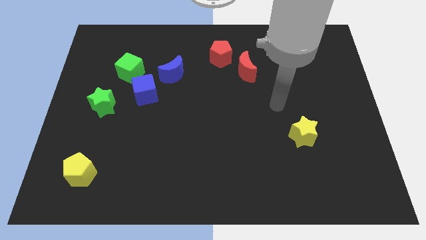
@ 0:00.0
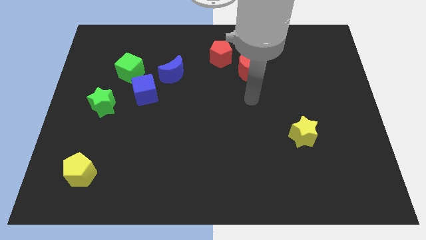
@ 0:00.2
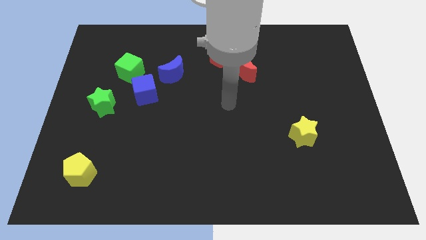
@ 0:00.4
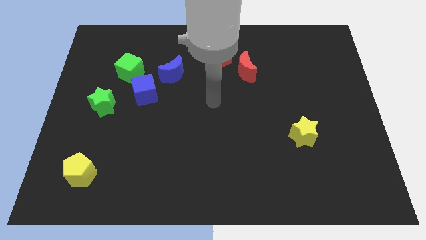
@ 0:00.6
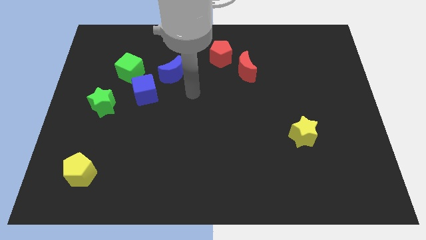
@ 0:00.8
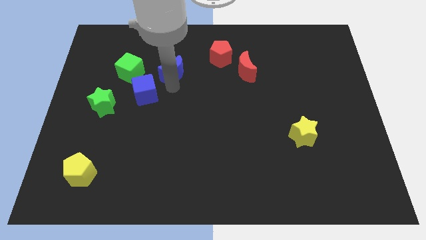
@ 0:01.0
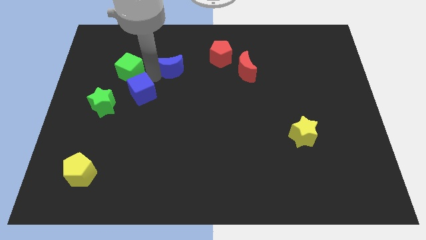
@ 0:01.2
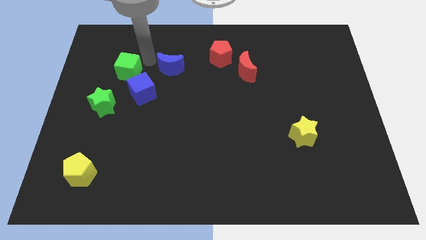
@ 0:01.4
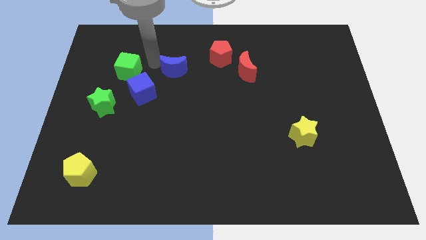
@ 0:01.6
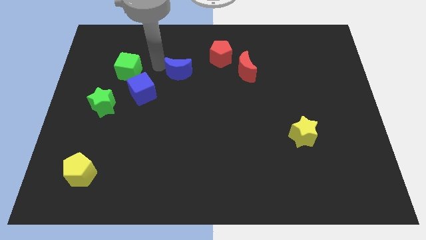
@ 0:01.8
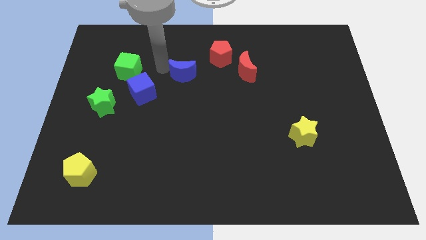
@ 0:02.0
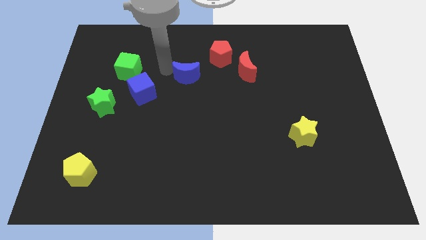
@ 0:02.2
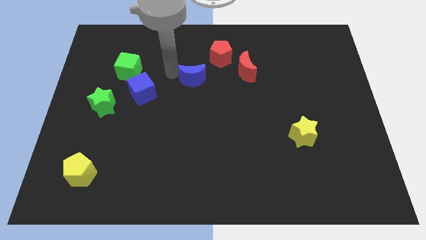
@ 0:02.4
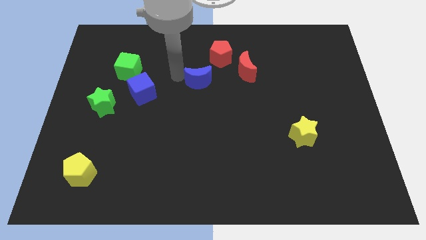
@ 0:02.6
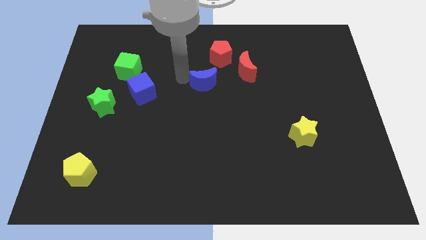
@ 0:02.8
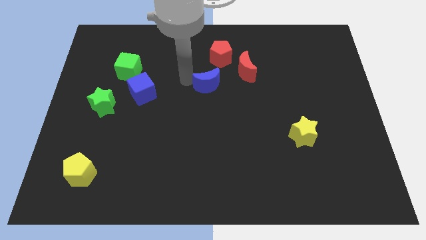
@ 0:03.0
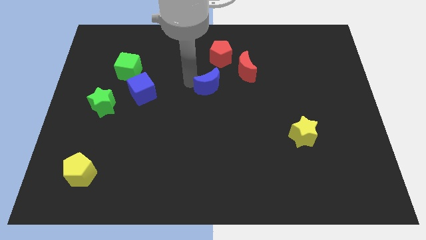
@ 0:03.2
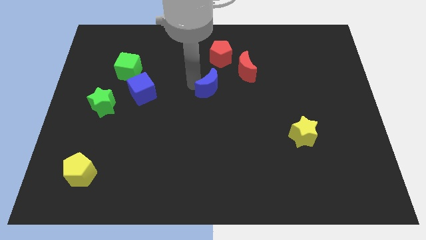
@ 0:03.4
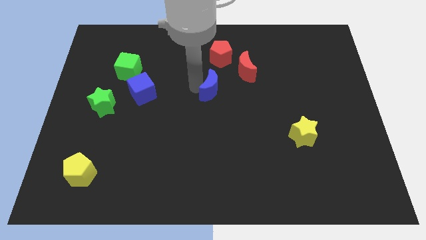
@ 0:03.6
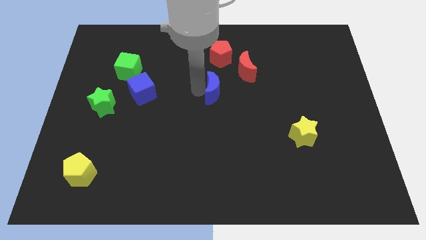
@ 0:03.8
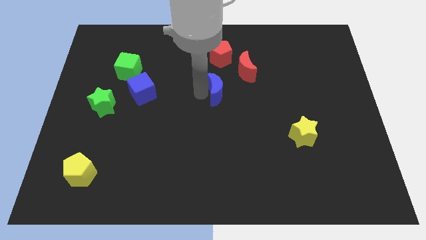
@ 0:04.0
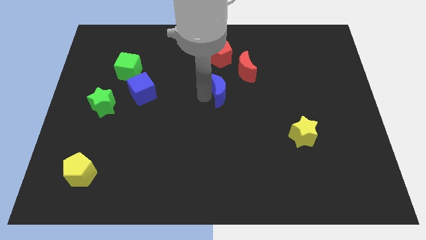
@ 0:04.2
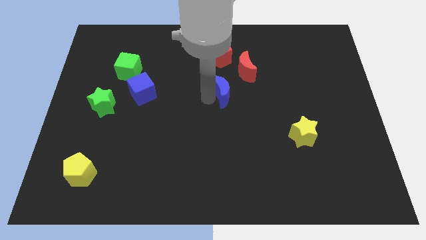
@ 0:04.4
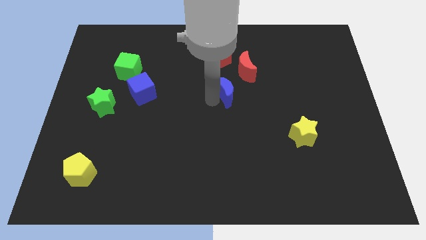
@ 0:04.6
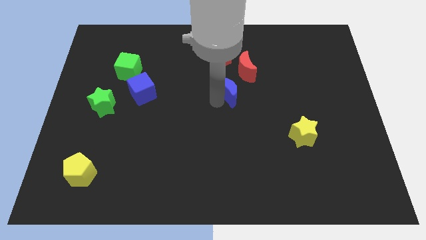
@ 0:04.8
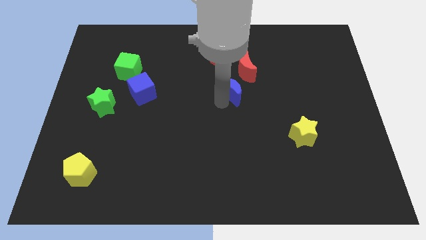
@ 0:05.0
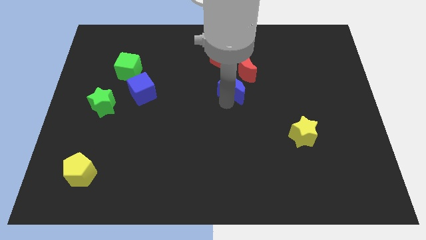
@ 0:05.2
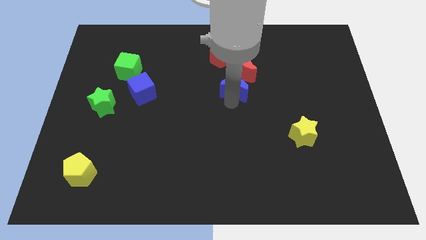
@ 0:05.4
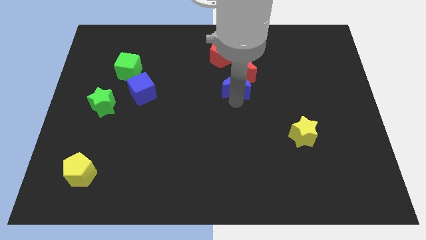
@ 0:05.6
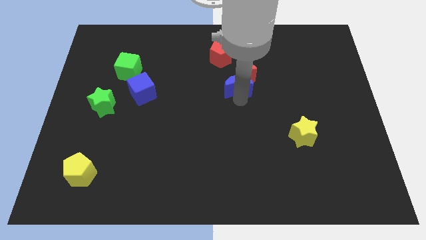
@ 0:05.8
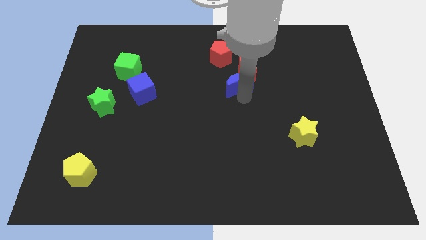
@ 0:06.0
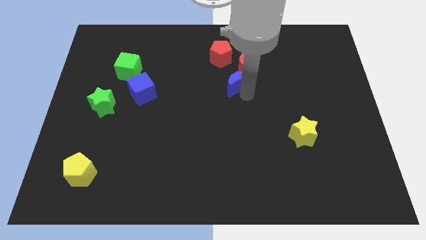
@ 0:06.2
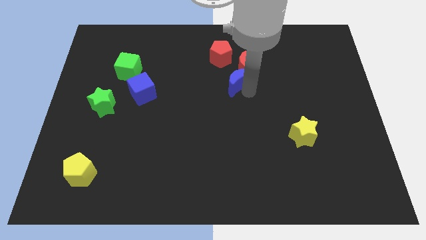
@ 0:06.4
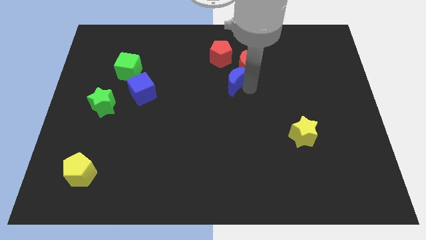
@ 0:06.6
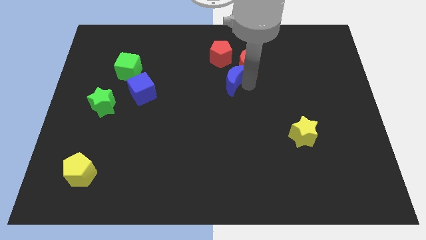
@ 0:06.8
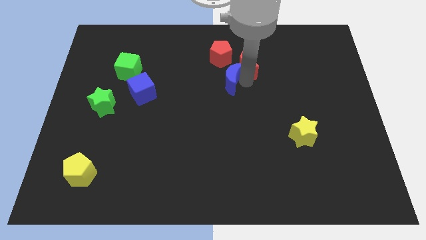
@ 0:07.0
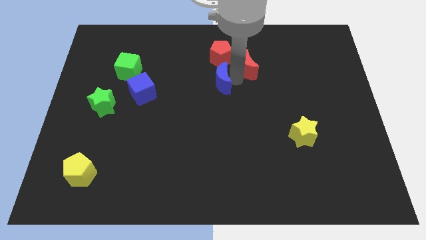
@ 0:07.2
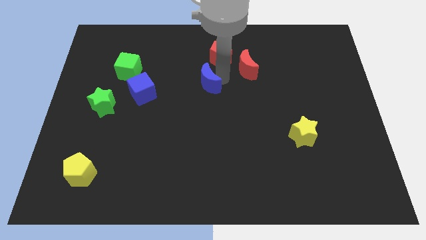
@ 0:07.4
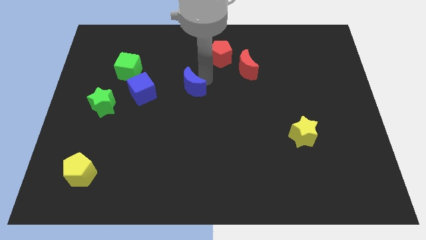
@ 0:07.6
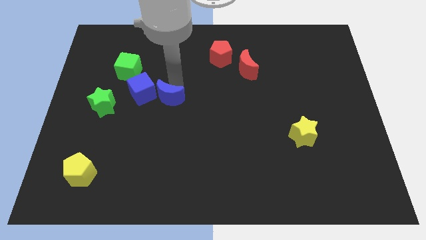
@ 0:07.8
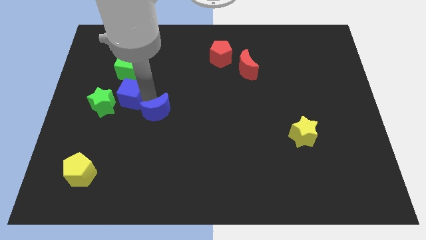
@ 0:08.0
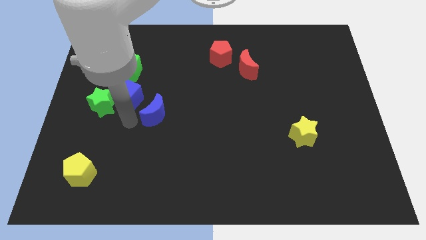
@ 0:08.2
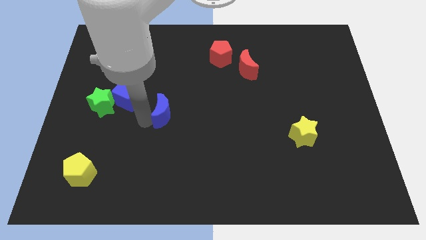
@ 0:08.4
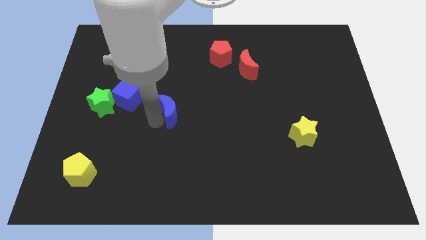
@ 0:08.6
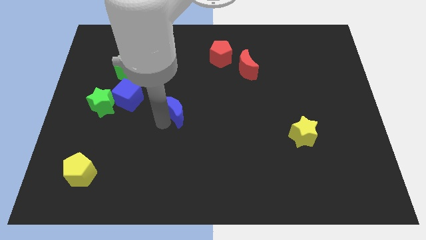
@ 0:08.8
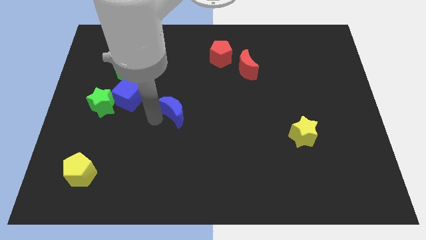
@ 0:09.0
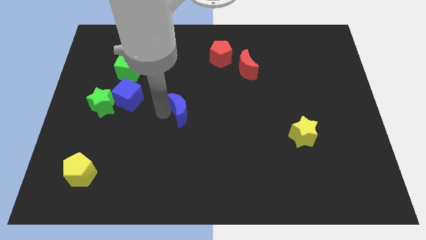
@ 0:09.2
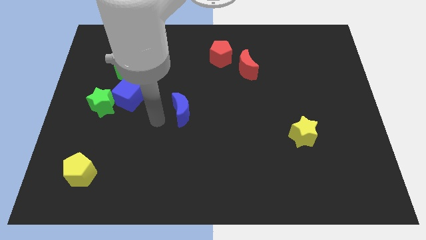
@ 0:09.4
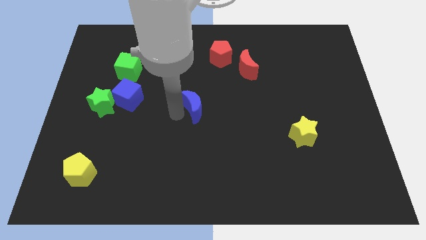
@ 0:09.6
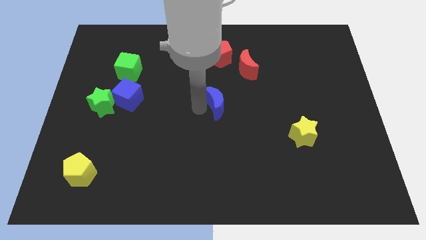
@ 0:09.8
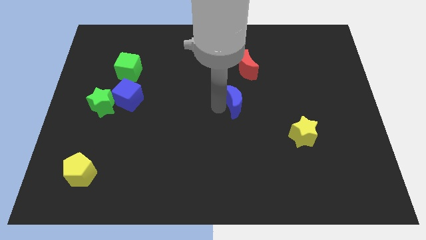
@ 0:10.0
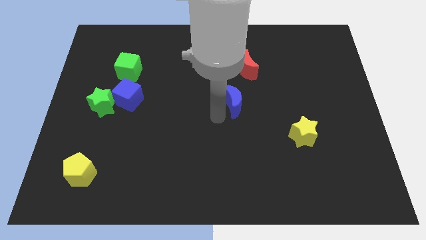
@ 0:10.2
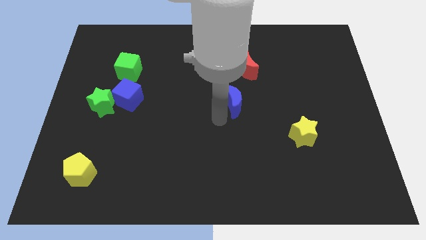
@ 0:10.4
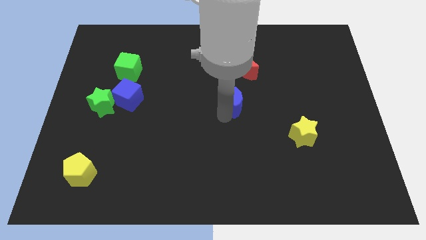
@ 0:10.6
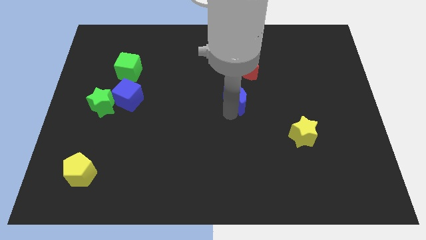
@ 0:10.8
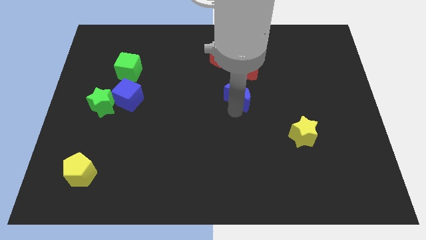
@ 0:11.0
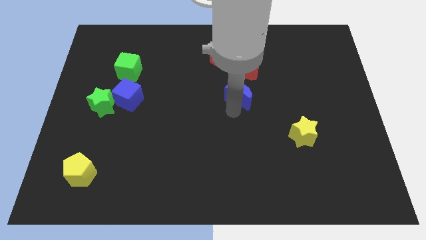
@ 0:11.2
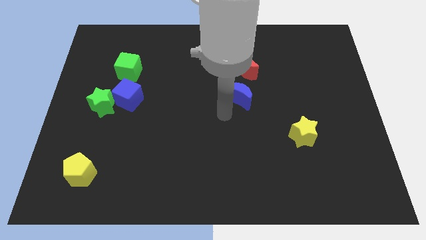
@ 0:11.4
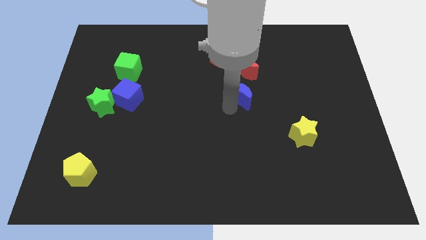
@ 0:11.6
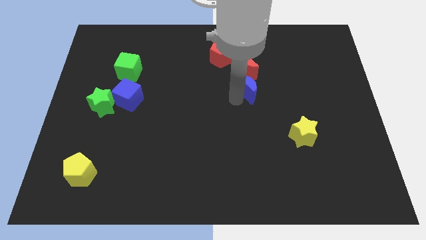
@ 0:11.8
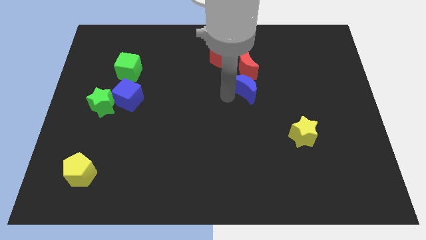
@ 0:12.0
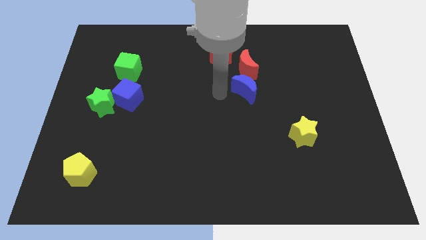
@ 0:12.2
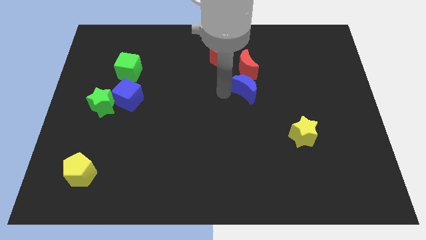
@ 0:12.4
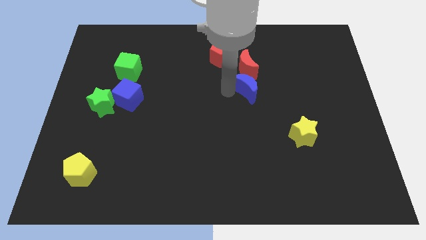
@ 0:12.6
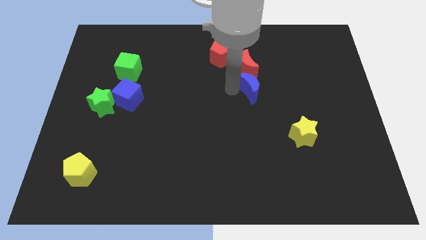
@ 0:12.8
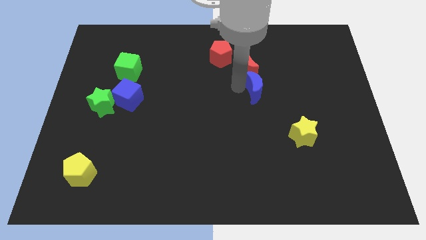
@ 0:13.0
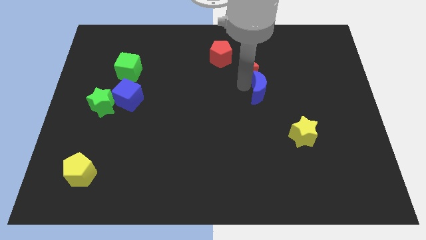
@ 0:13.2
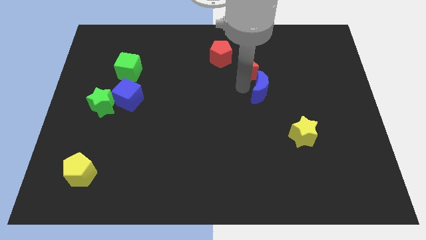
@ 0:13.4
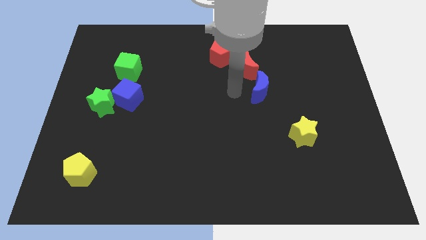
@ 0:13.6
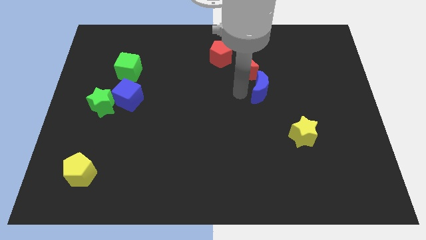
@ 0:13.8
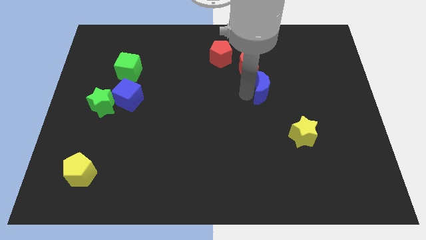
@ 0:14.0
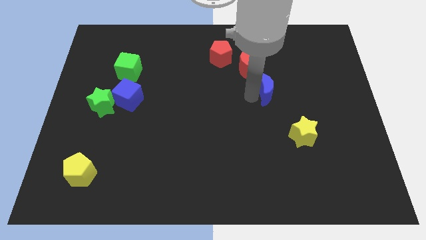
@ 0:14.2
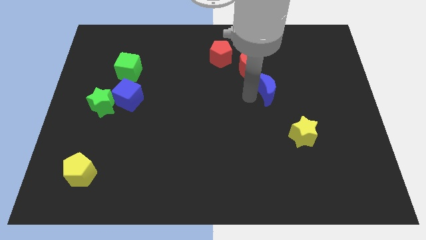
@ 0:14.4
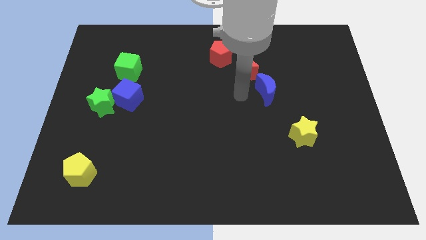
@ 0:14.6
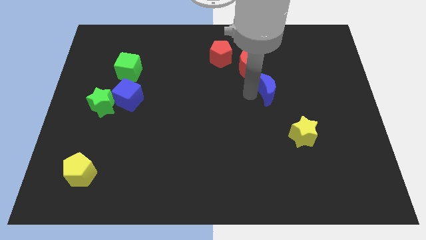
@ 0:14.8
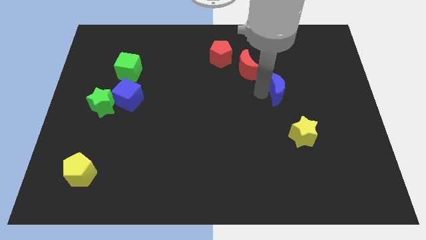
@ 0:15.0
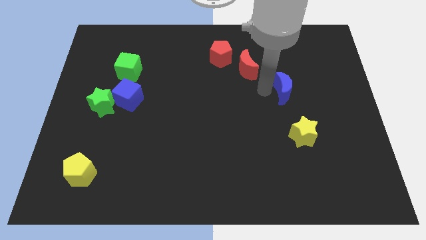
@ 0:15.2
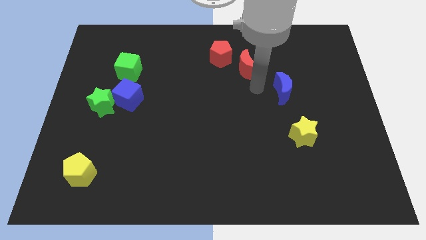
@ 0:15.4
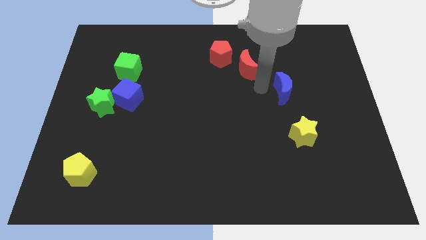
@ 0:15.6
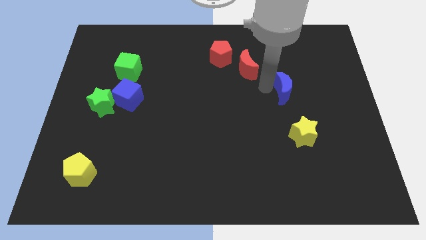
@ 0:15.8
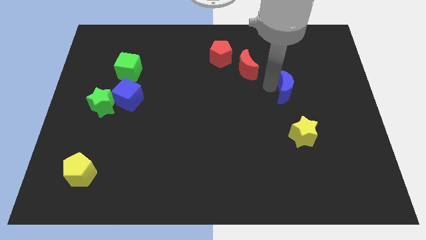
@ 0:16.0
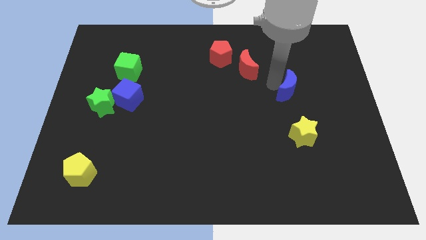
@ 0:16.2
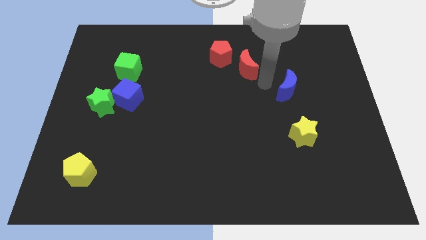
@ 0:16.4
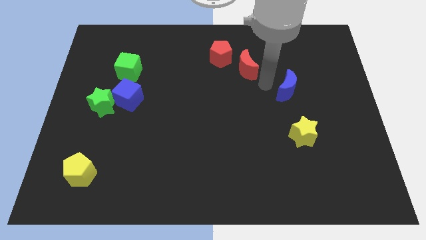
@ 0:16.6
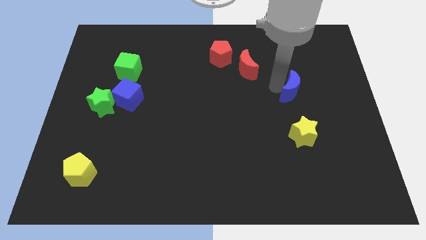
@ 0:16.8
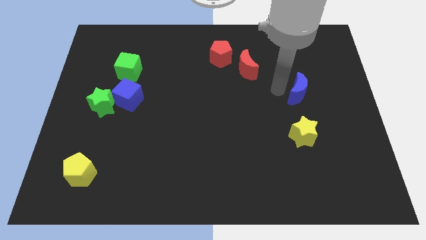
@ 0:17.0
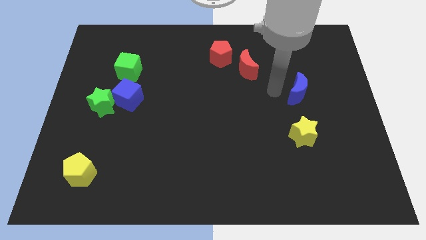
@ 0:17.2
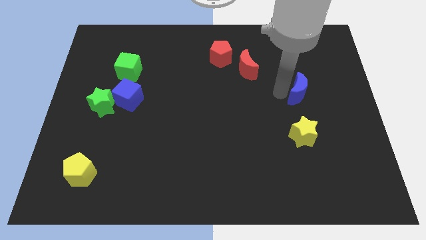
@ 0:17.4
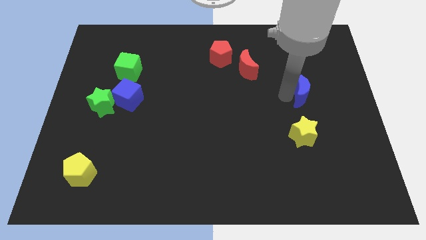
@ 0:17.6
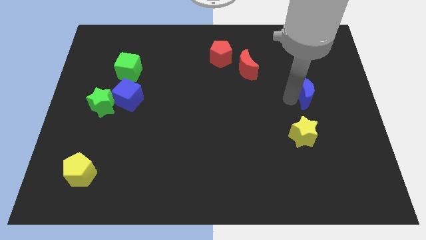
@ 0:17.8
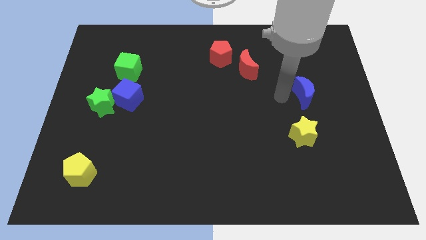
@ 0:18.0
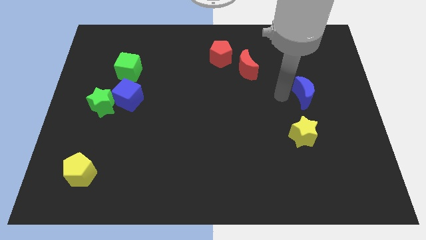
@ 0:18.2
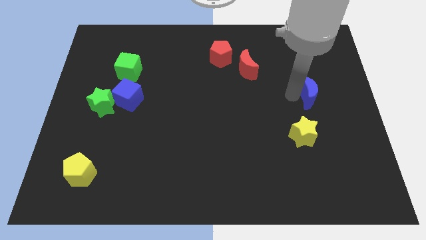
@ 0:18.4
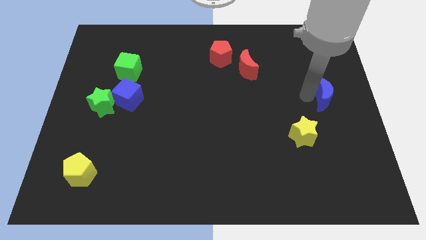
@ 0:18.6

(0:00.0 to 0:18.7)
slide the blue moon to the right side of the board
